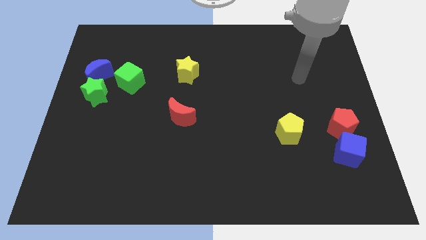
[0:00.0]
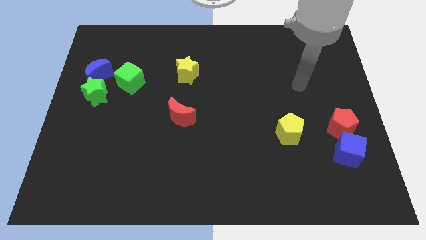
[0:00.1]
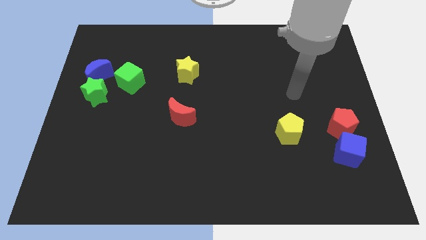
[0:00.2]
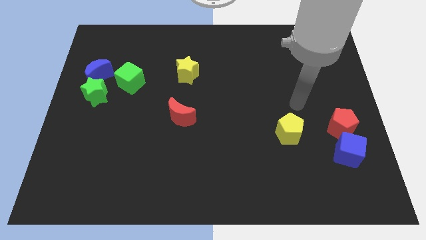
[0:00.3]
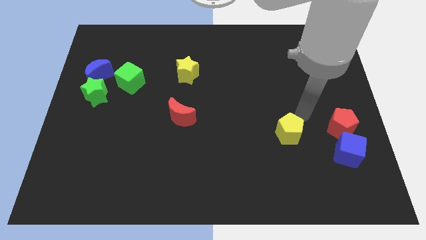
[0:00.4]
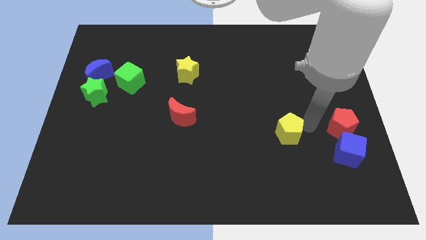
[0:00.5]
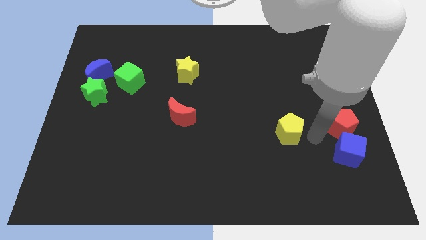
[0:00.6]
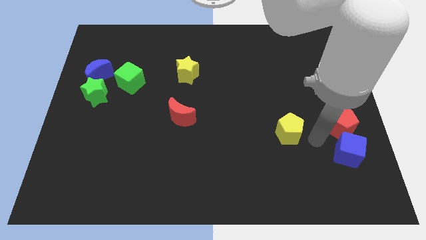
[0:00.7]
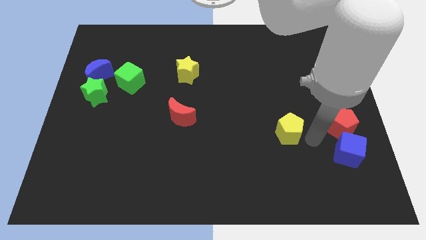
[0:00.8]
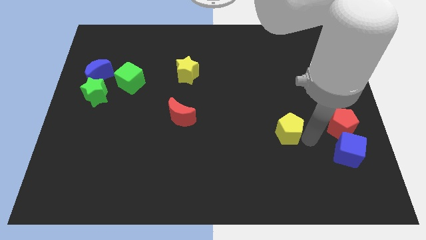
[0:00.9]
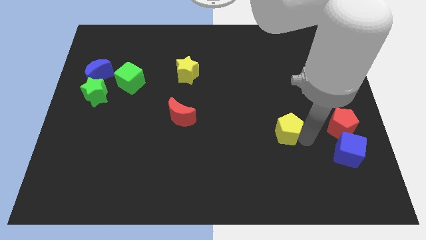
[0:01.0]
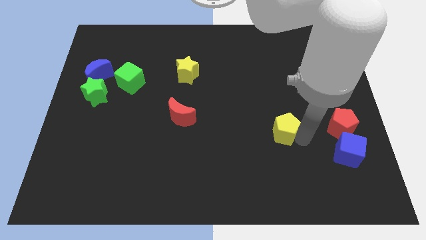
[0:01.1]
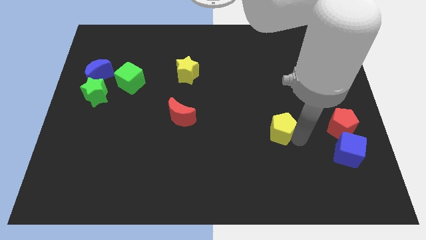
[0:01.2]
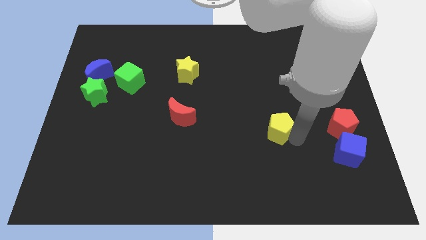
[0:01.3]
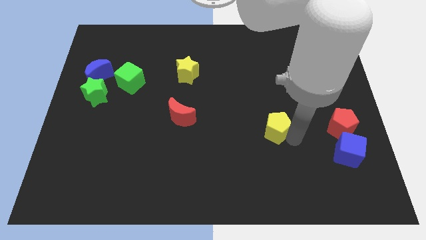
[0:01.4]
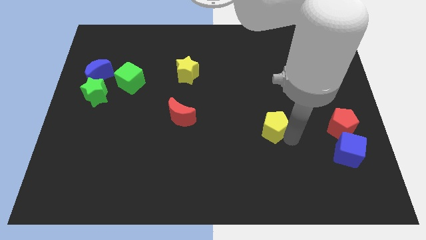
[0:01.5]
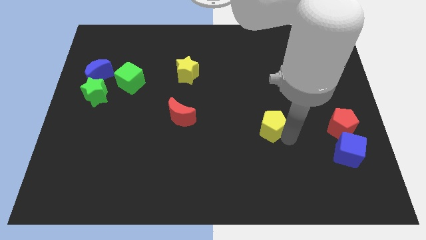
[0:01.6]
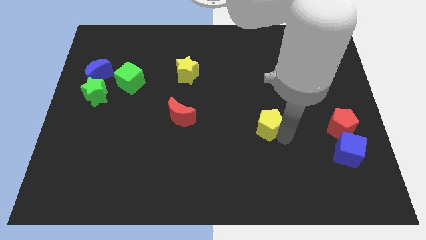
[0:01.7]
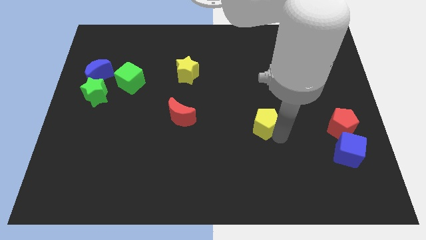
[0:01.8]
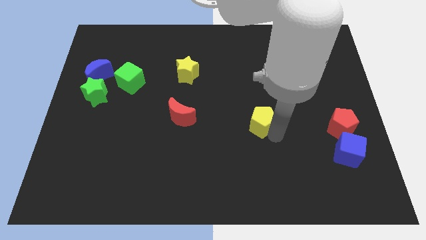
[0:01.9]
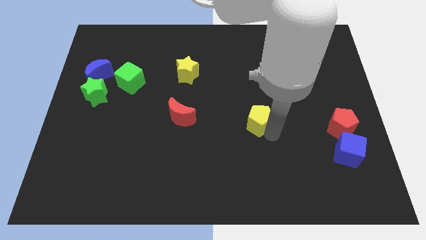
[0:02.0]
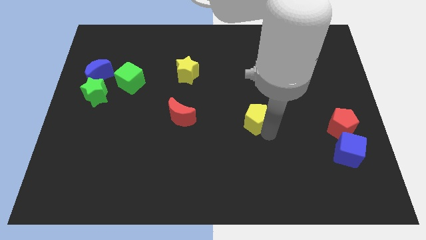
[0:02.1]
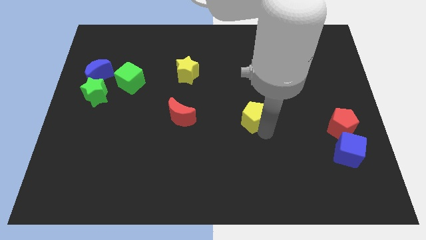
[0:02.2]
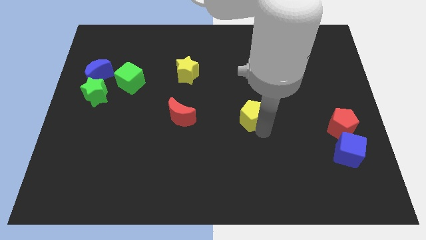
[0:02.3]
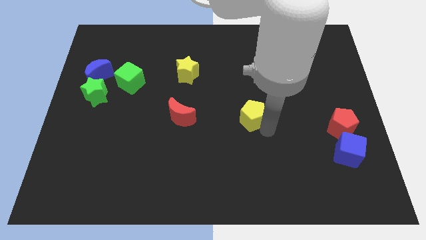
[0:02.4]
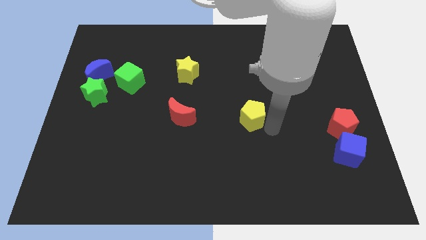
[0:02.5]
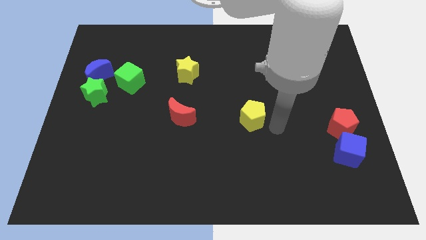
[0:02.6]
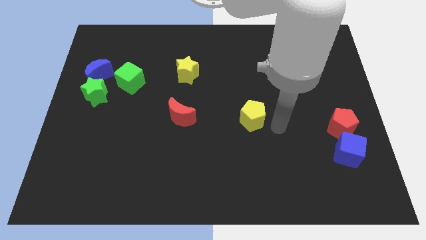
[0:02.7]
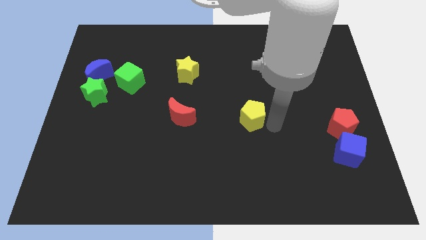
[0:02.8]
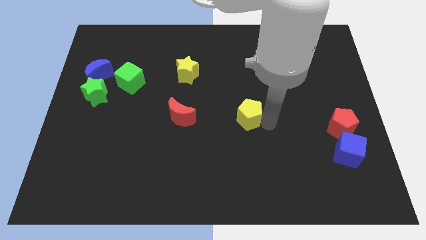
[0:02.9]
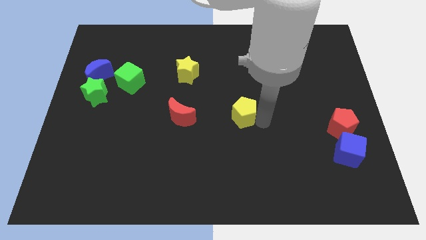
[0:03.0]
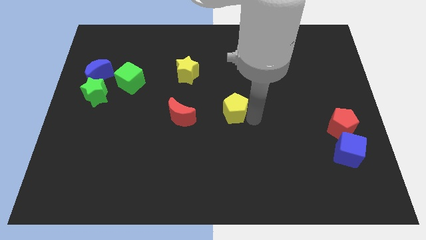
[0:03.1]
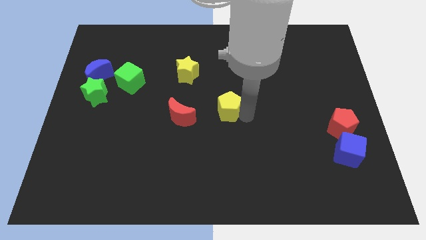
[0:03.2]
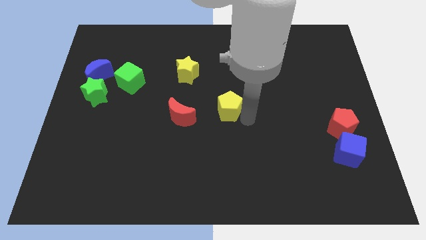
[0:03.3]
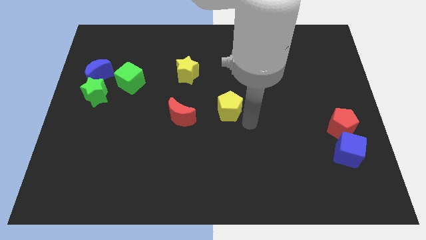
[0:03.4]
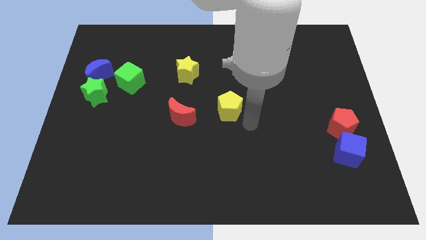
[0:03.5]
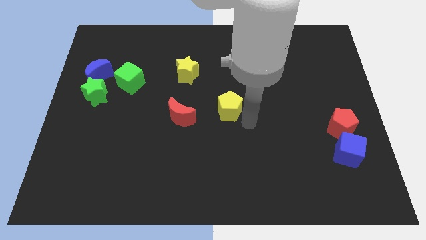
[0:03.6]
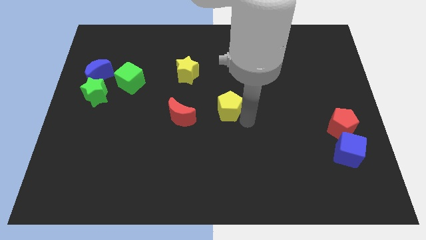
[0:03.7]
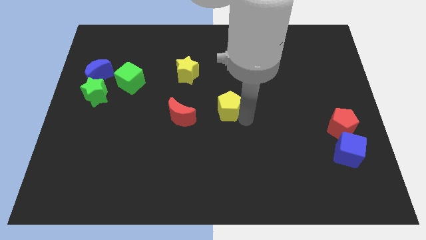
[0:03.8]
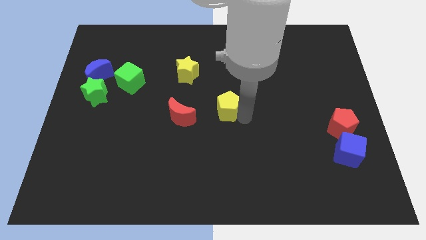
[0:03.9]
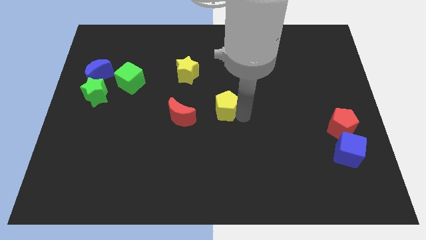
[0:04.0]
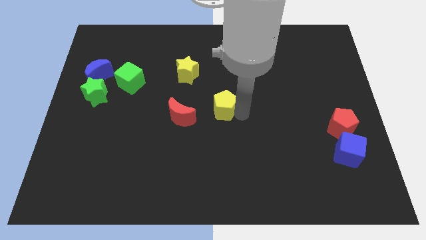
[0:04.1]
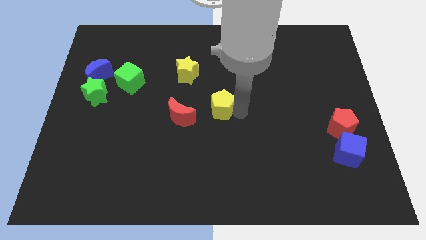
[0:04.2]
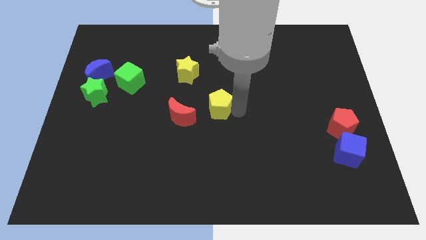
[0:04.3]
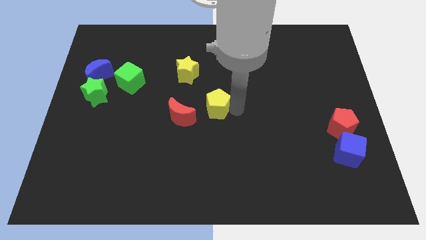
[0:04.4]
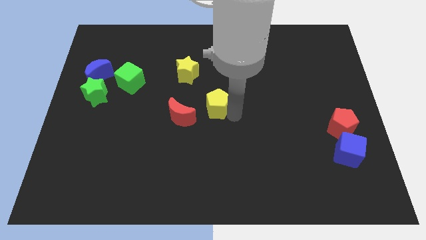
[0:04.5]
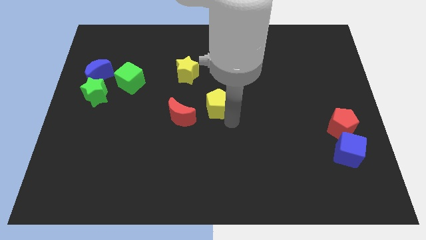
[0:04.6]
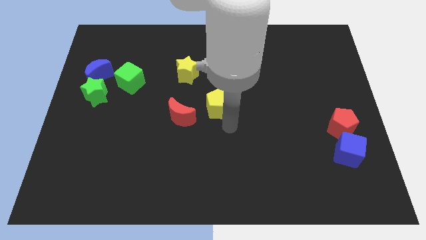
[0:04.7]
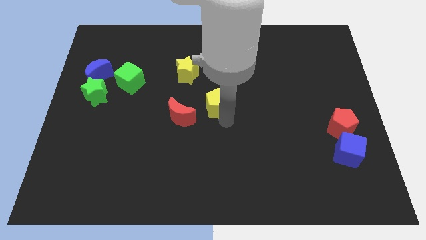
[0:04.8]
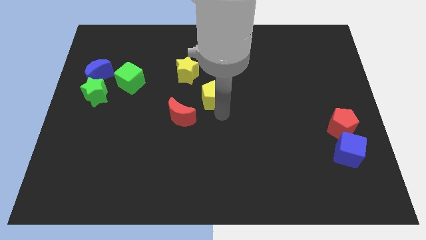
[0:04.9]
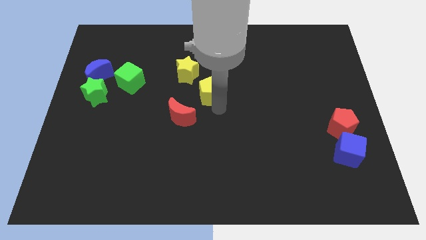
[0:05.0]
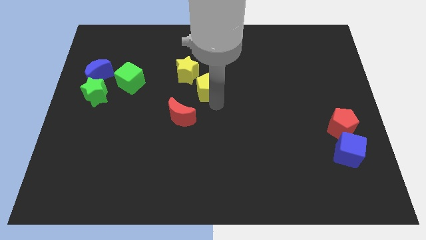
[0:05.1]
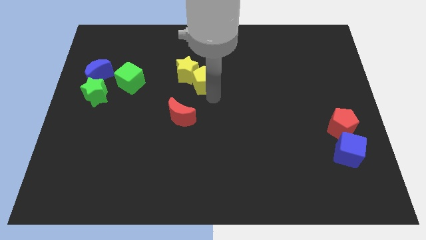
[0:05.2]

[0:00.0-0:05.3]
move the yellow pentagon next to the yellow star

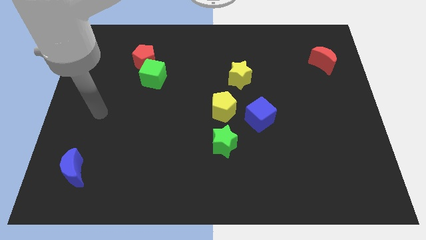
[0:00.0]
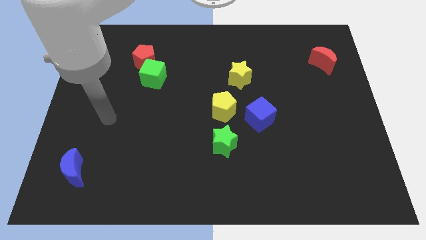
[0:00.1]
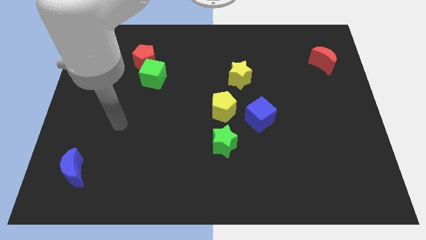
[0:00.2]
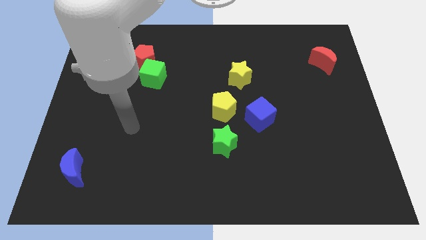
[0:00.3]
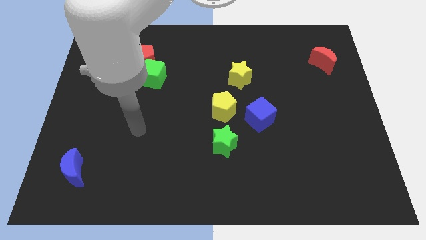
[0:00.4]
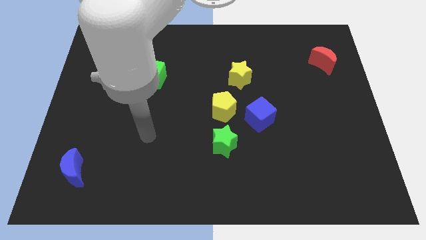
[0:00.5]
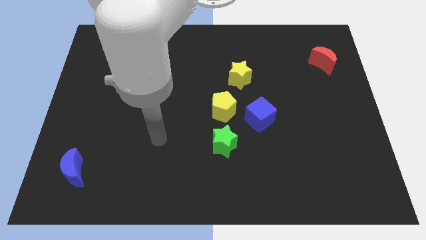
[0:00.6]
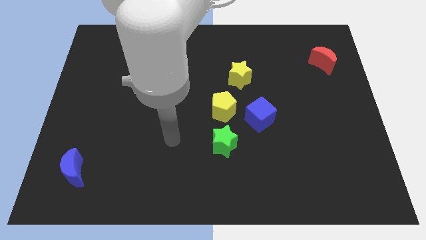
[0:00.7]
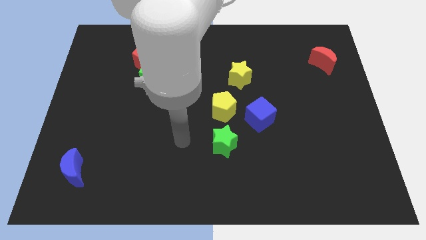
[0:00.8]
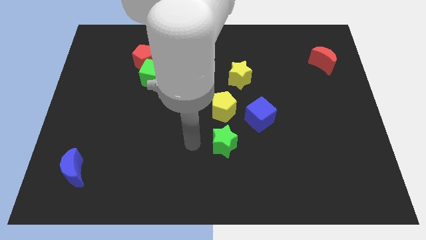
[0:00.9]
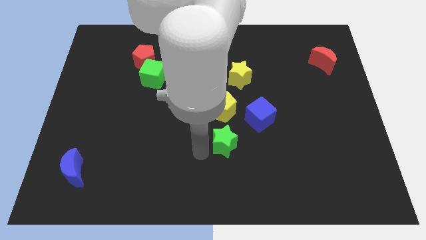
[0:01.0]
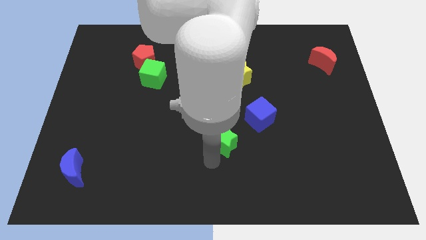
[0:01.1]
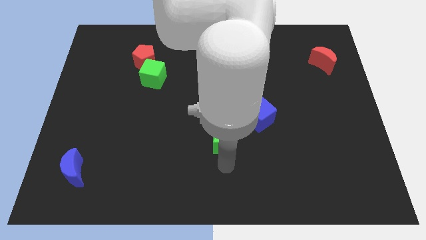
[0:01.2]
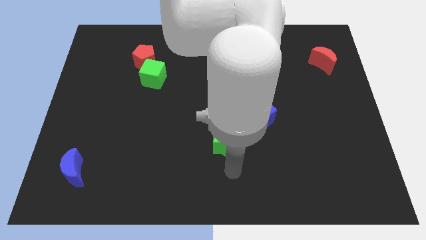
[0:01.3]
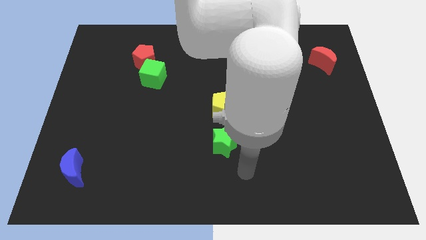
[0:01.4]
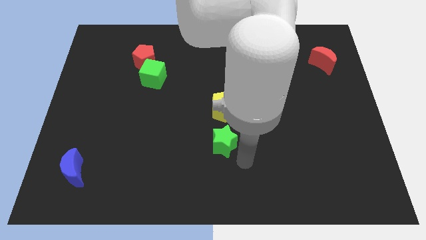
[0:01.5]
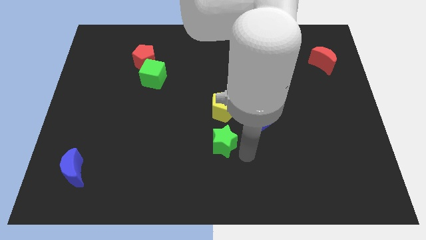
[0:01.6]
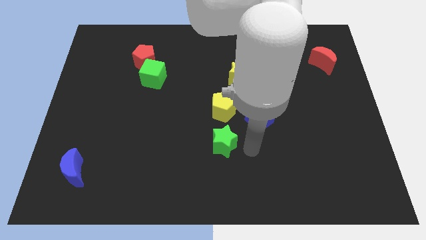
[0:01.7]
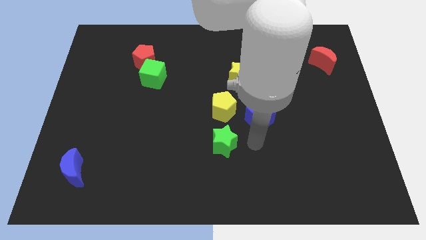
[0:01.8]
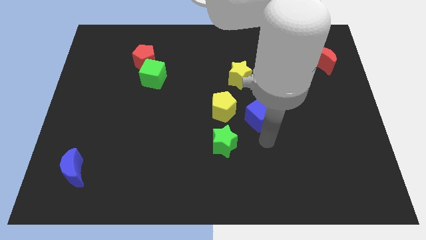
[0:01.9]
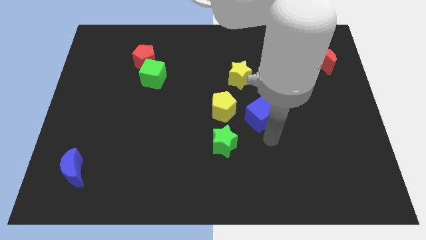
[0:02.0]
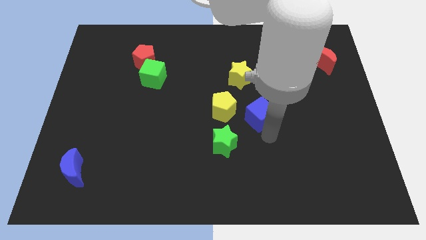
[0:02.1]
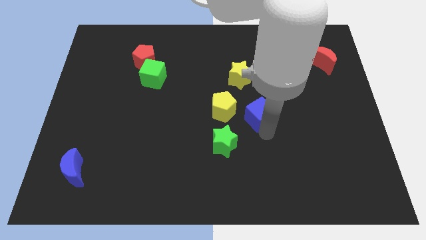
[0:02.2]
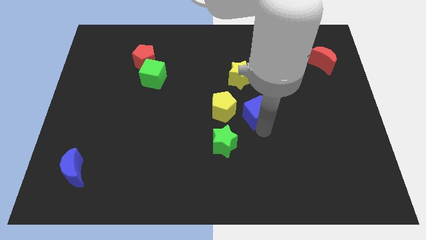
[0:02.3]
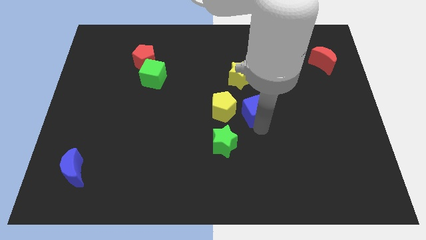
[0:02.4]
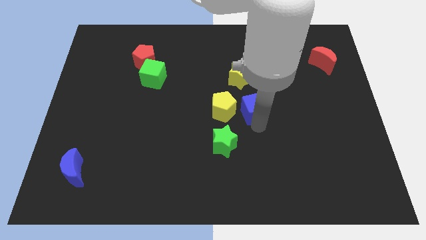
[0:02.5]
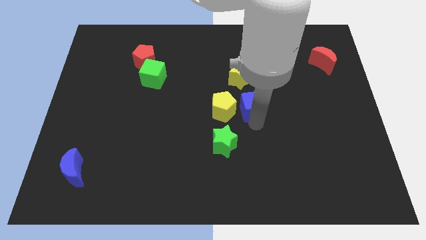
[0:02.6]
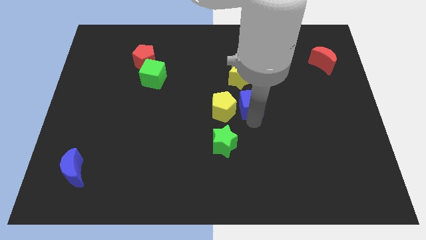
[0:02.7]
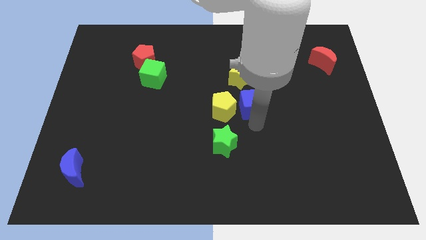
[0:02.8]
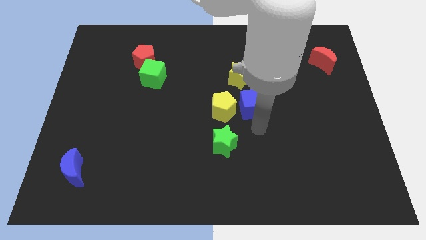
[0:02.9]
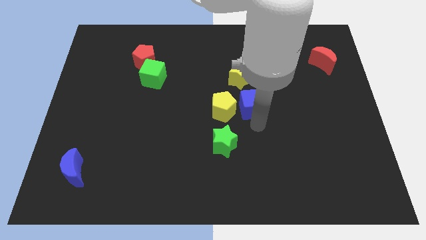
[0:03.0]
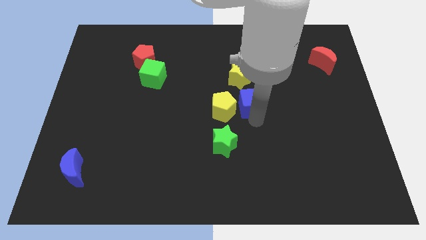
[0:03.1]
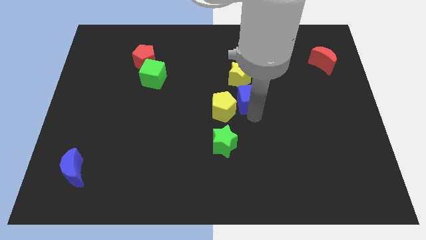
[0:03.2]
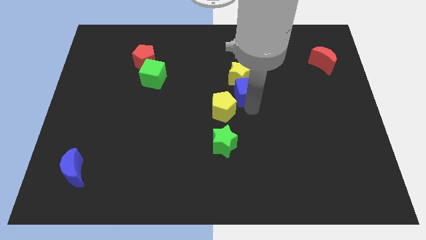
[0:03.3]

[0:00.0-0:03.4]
slide the blue cube towards the yellow star
